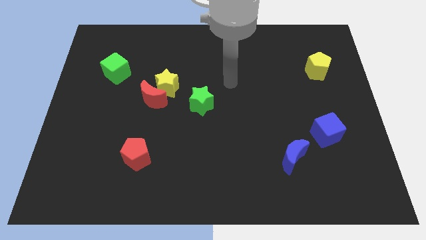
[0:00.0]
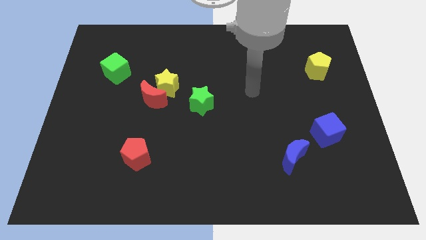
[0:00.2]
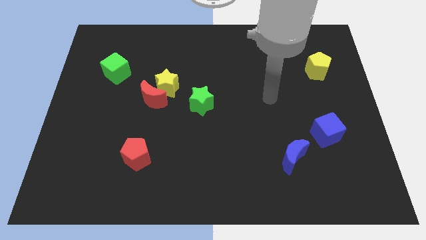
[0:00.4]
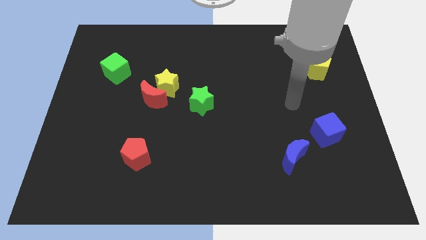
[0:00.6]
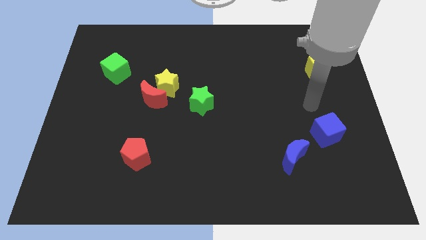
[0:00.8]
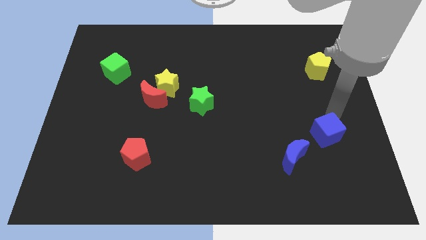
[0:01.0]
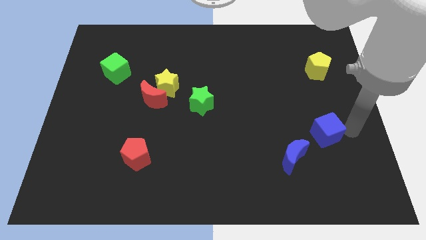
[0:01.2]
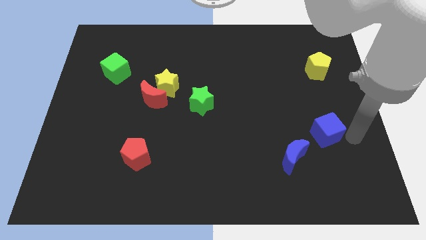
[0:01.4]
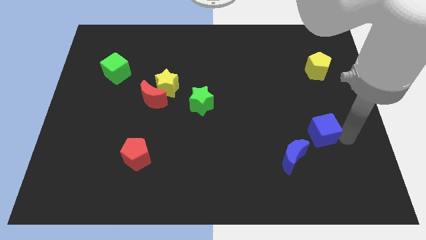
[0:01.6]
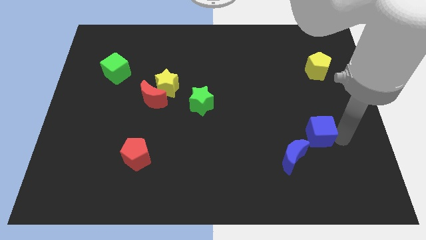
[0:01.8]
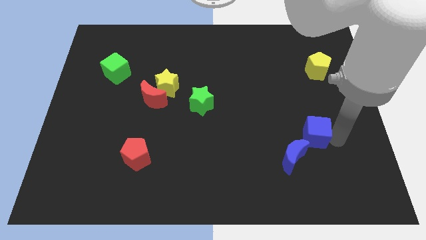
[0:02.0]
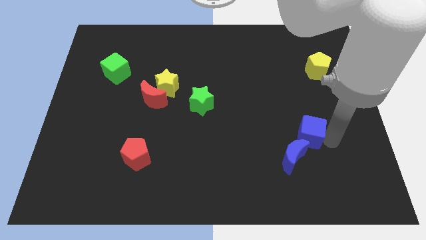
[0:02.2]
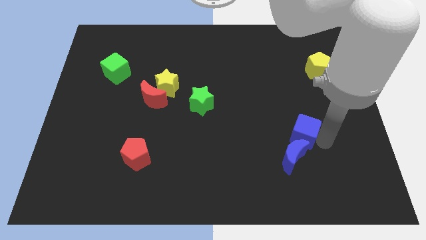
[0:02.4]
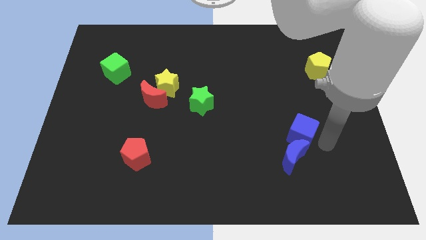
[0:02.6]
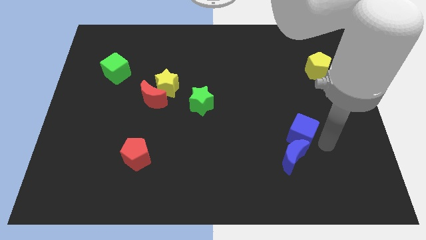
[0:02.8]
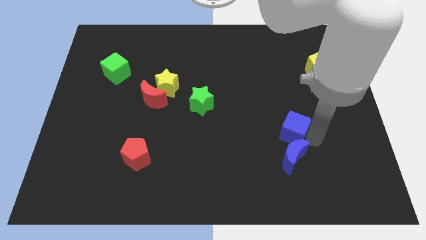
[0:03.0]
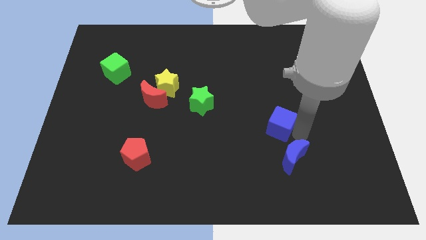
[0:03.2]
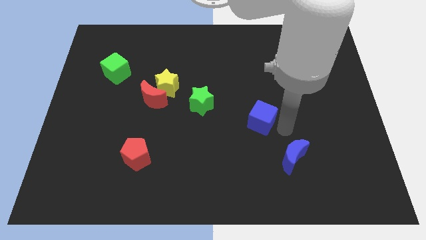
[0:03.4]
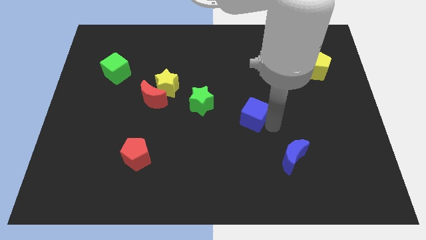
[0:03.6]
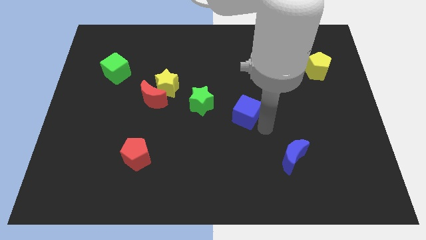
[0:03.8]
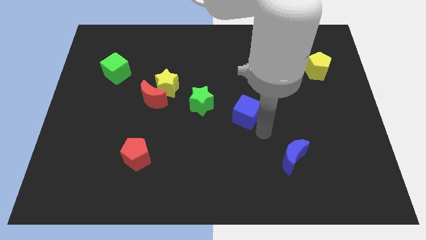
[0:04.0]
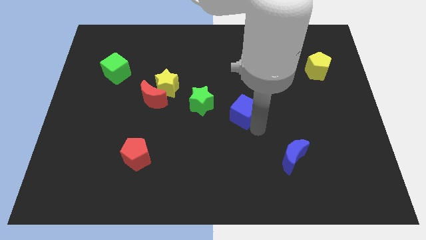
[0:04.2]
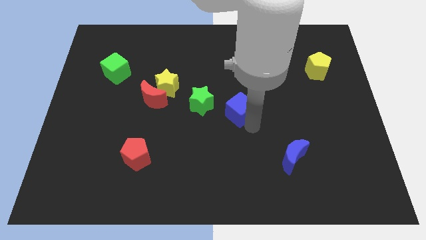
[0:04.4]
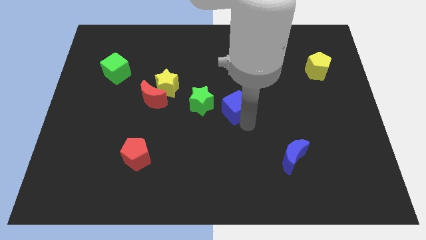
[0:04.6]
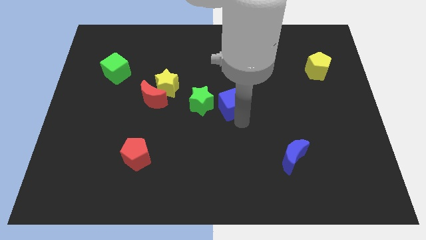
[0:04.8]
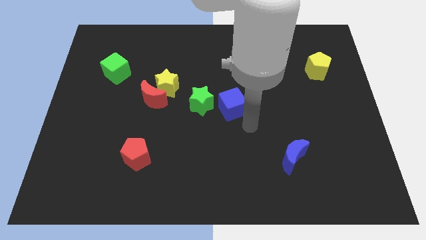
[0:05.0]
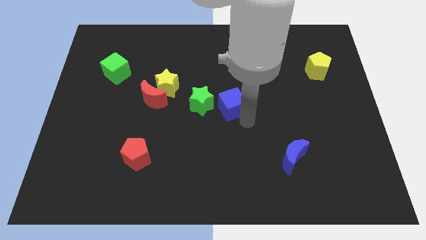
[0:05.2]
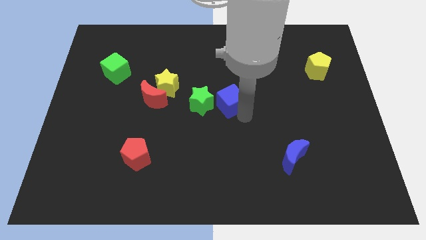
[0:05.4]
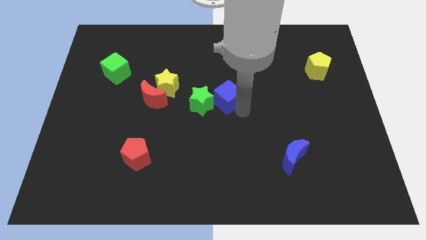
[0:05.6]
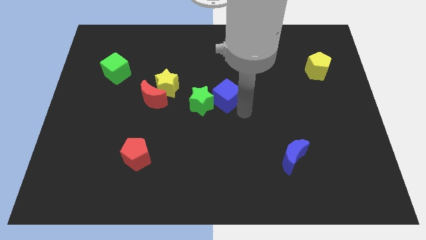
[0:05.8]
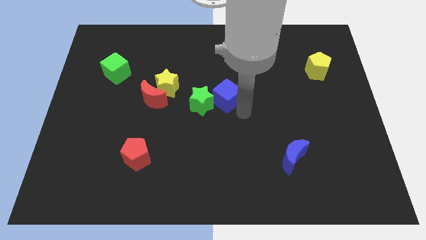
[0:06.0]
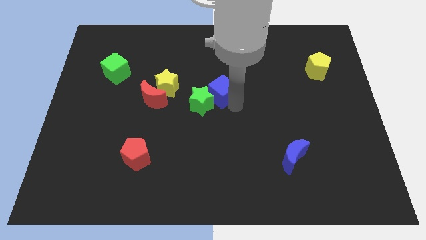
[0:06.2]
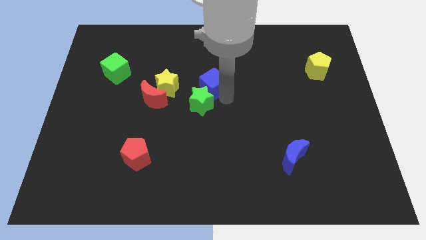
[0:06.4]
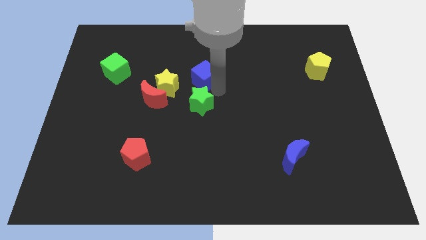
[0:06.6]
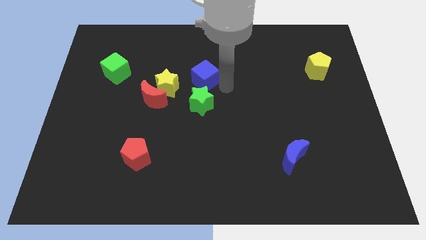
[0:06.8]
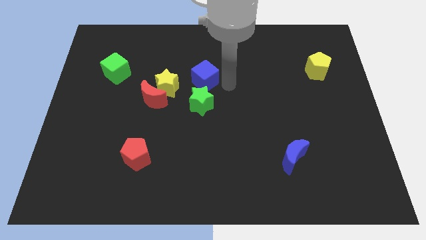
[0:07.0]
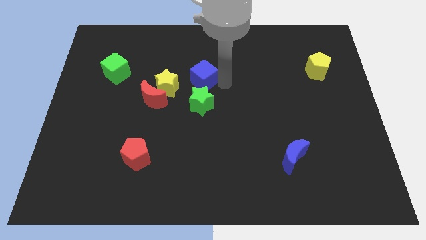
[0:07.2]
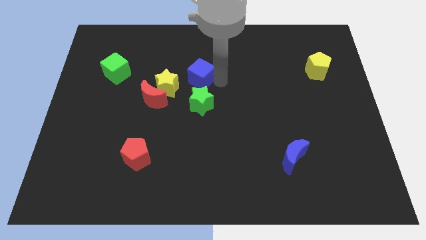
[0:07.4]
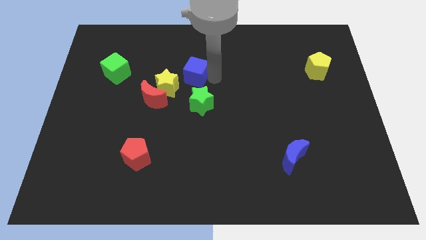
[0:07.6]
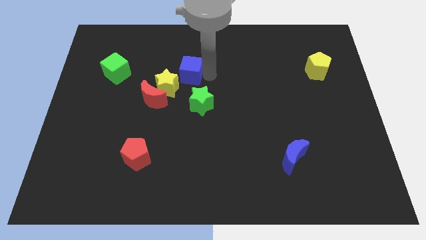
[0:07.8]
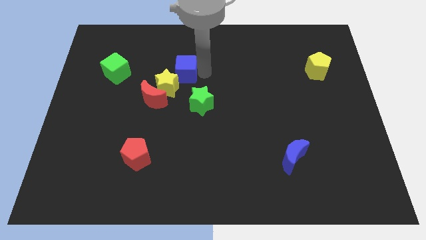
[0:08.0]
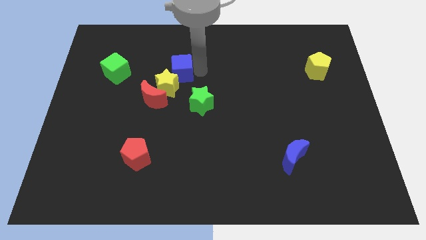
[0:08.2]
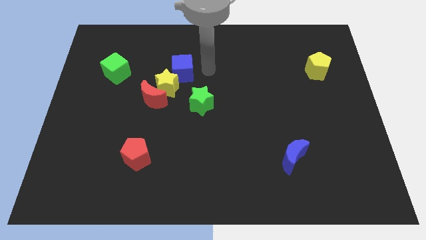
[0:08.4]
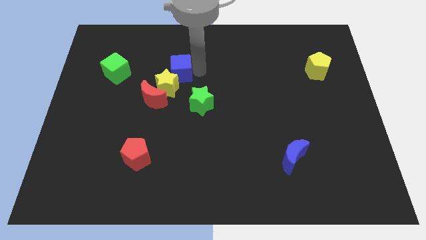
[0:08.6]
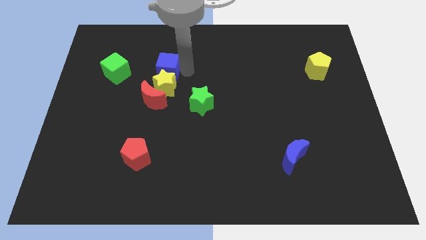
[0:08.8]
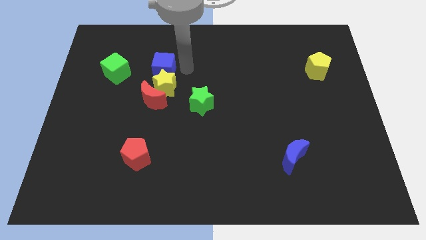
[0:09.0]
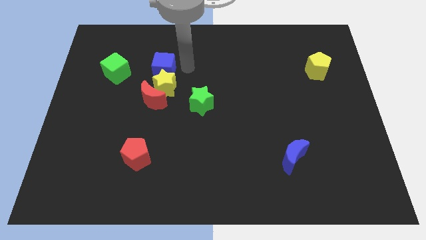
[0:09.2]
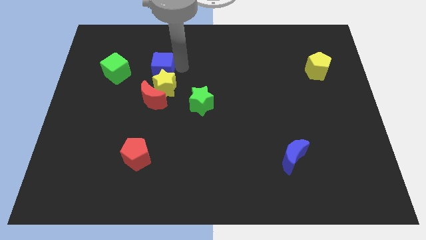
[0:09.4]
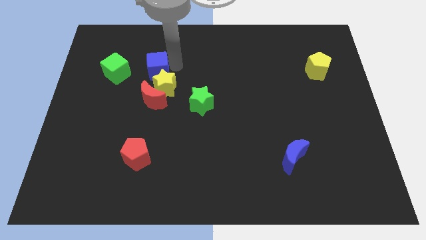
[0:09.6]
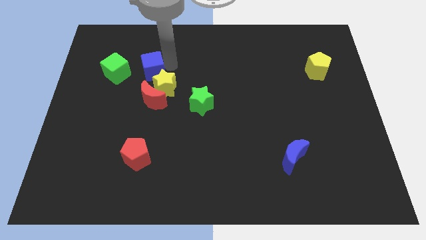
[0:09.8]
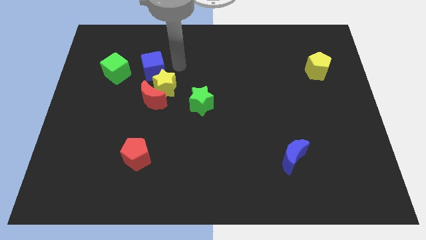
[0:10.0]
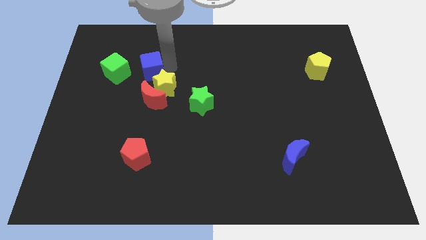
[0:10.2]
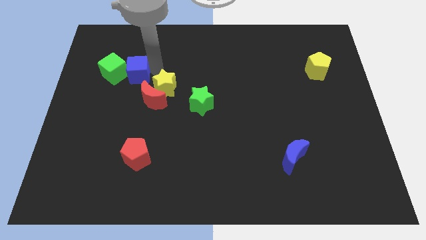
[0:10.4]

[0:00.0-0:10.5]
push the blue cube to the green cube

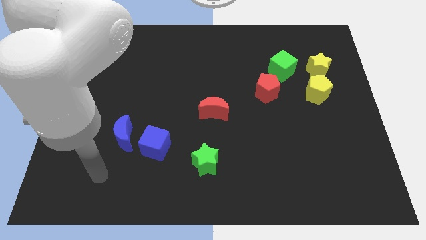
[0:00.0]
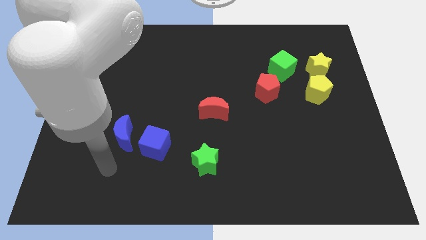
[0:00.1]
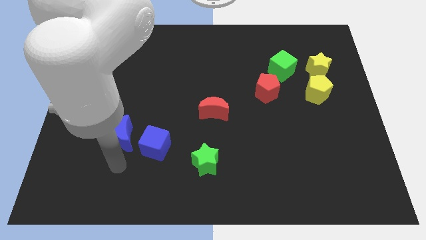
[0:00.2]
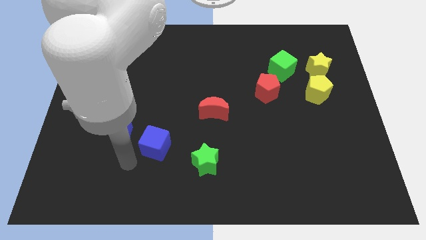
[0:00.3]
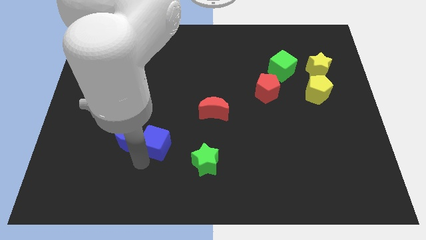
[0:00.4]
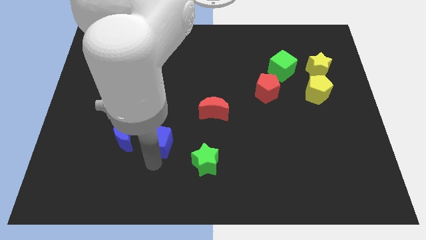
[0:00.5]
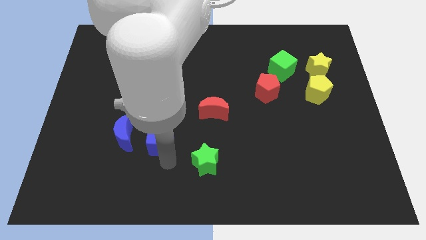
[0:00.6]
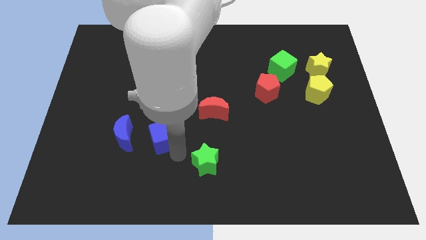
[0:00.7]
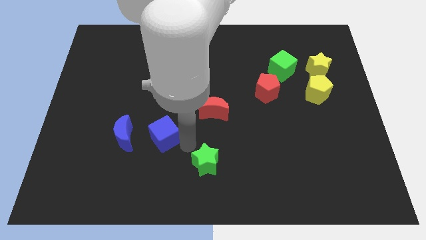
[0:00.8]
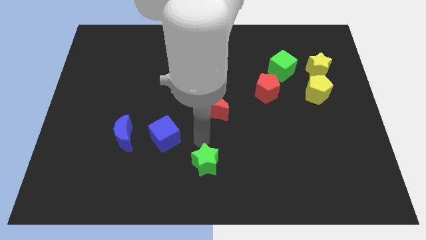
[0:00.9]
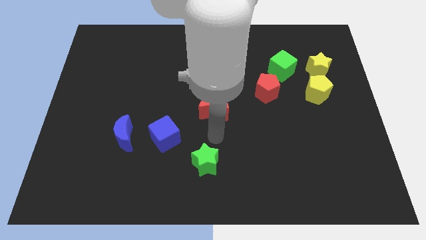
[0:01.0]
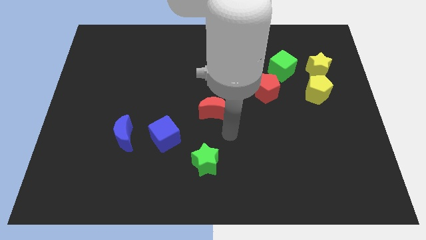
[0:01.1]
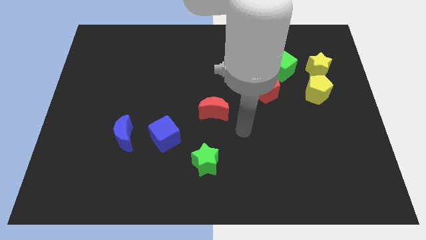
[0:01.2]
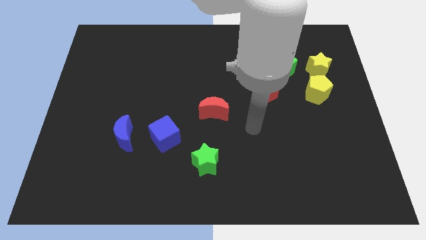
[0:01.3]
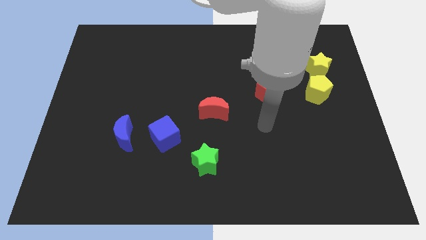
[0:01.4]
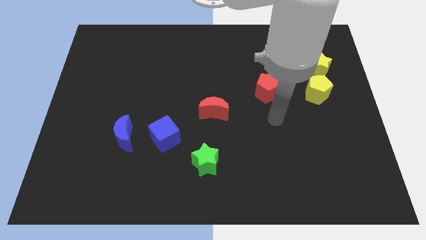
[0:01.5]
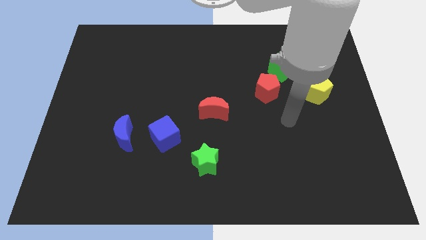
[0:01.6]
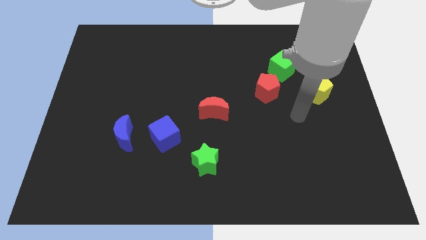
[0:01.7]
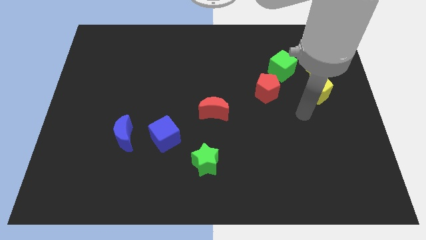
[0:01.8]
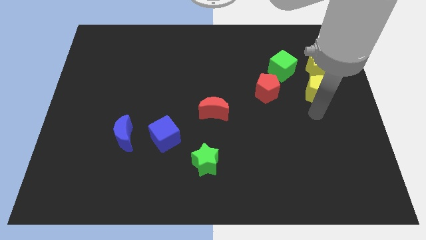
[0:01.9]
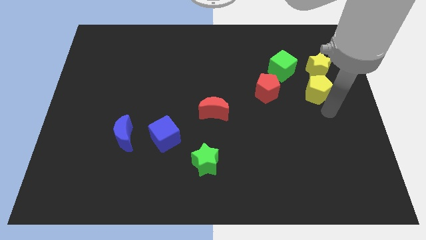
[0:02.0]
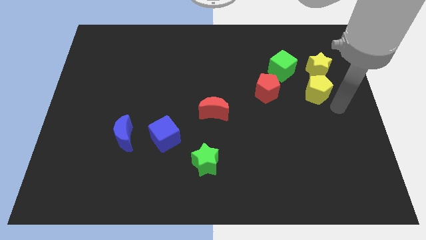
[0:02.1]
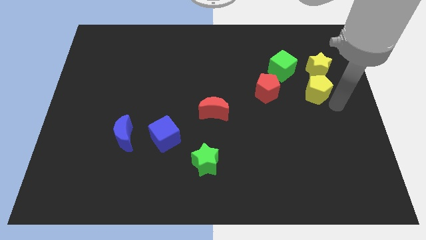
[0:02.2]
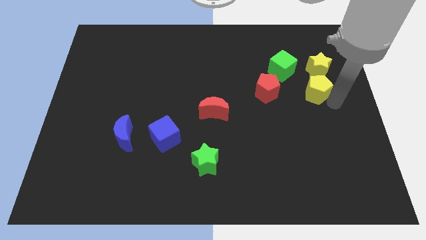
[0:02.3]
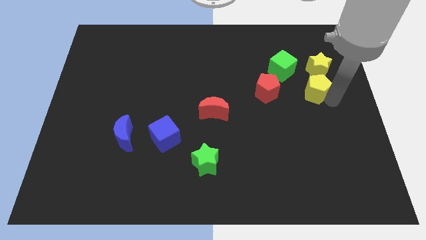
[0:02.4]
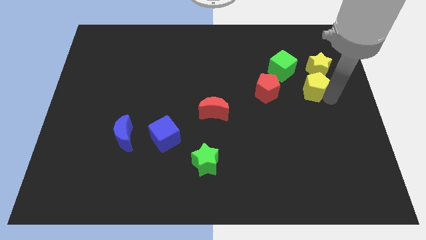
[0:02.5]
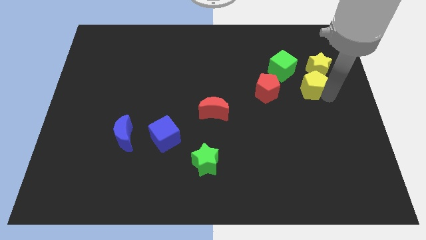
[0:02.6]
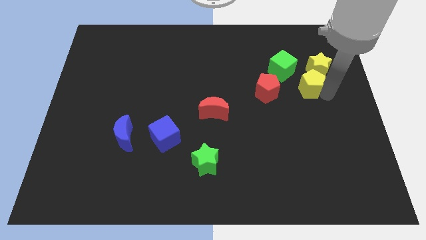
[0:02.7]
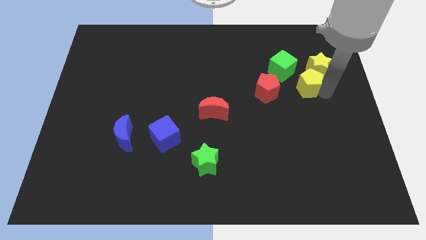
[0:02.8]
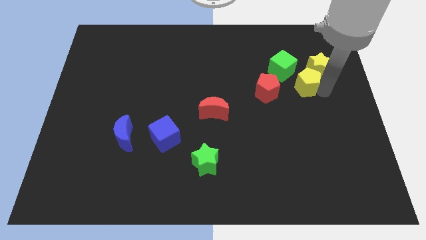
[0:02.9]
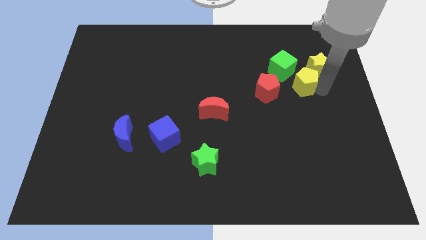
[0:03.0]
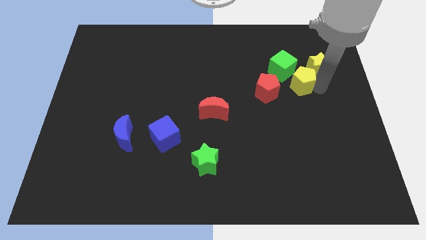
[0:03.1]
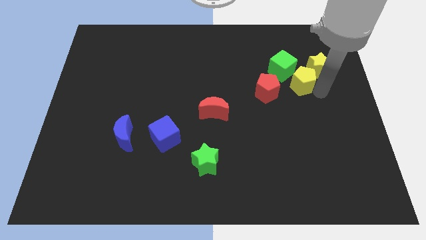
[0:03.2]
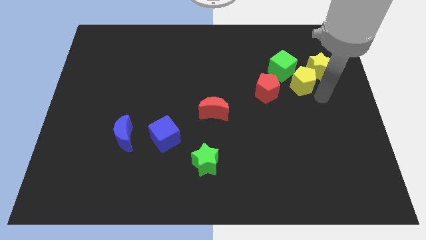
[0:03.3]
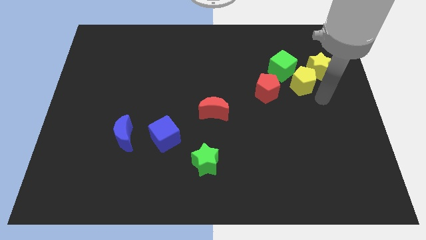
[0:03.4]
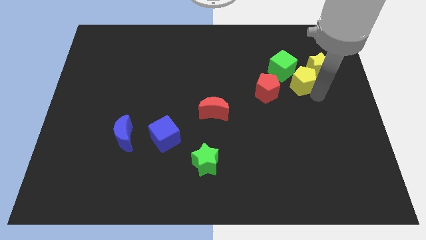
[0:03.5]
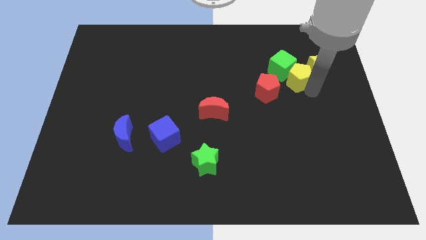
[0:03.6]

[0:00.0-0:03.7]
slide the yellow pentagon towards the green cube
